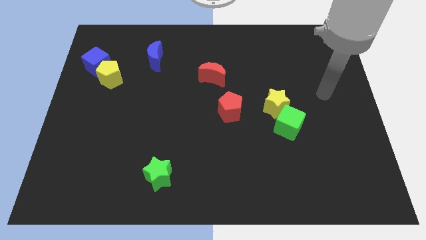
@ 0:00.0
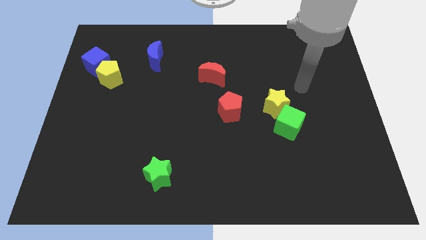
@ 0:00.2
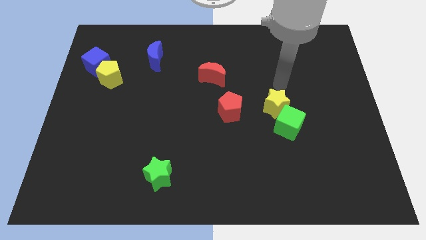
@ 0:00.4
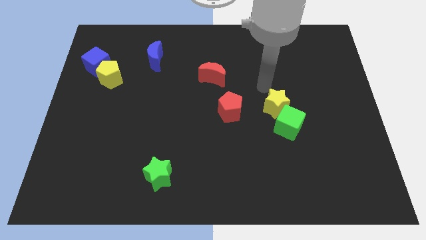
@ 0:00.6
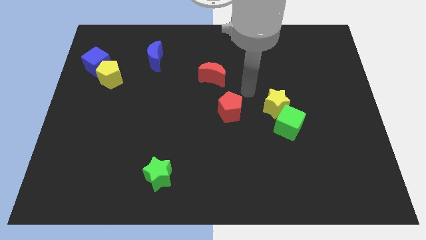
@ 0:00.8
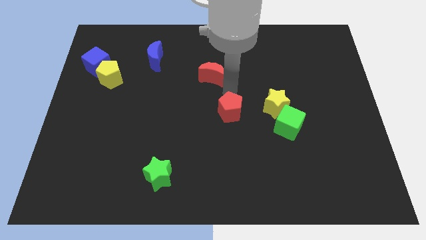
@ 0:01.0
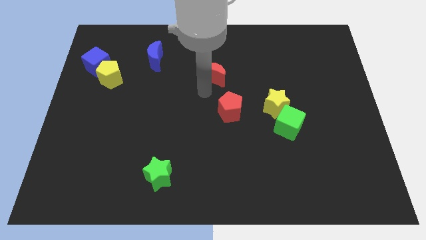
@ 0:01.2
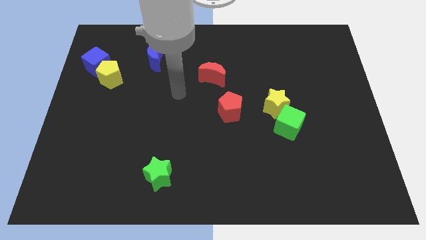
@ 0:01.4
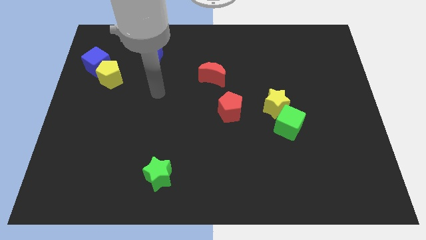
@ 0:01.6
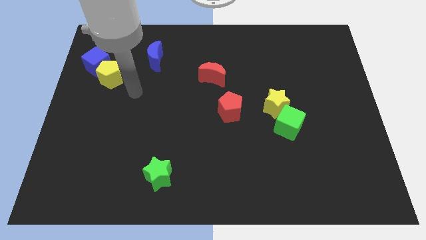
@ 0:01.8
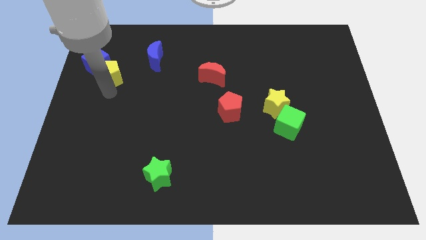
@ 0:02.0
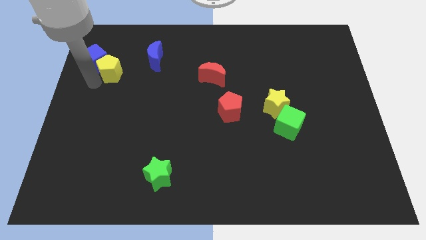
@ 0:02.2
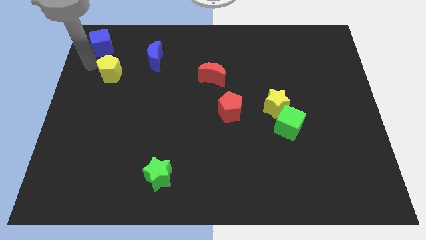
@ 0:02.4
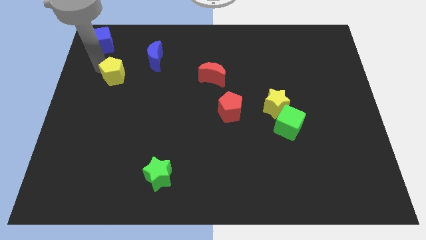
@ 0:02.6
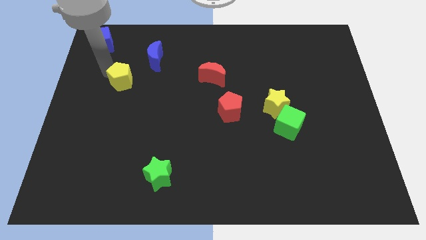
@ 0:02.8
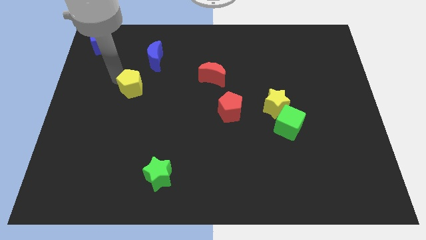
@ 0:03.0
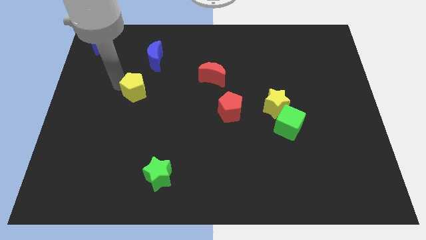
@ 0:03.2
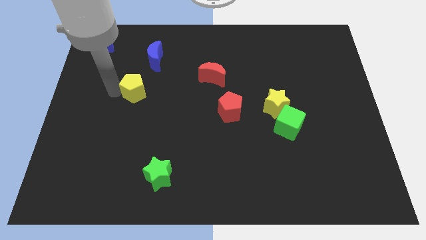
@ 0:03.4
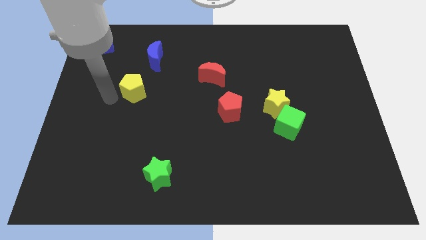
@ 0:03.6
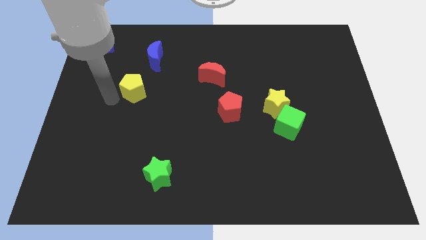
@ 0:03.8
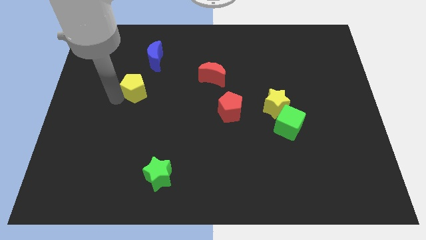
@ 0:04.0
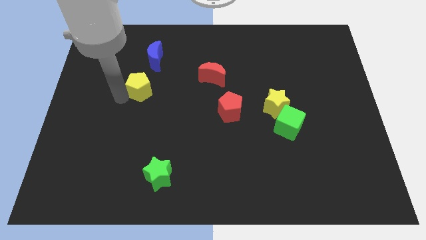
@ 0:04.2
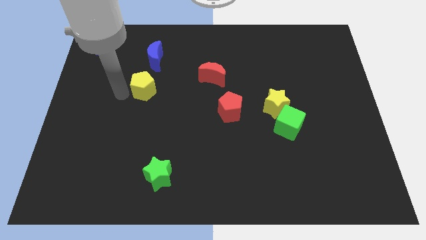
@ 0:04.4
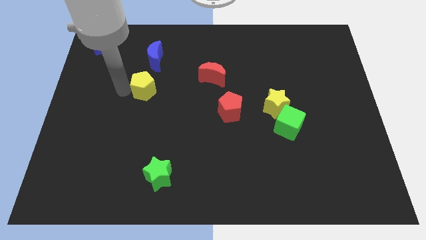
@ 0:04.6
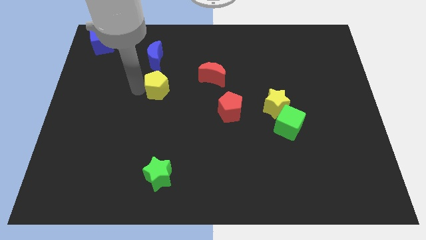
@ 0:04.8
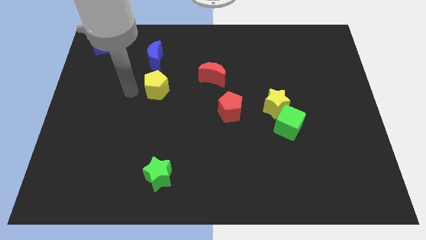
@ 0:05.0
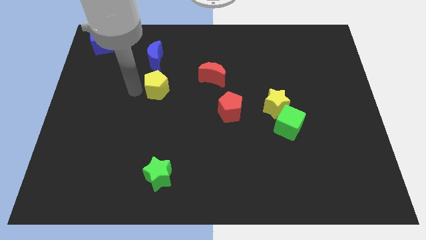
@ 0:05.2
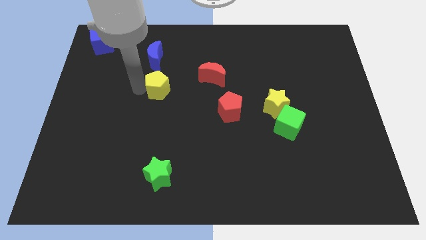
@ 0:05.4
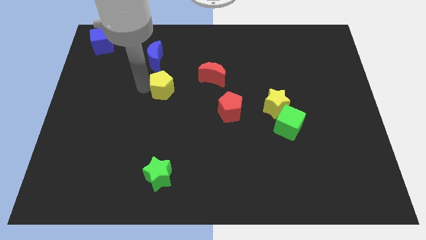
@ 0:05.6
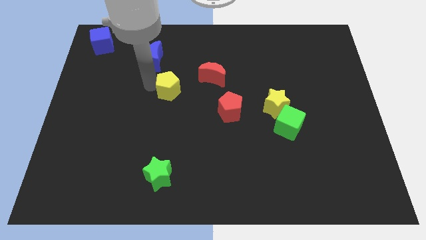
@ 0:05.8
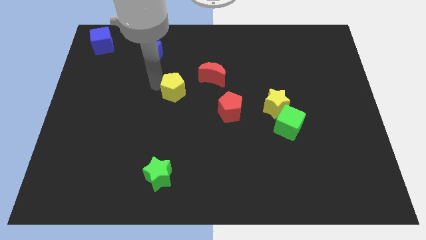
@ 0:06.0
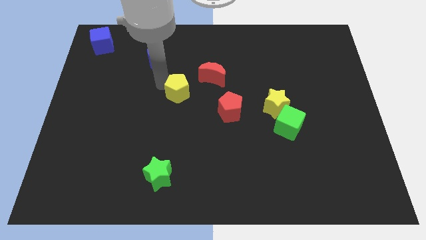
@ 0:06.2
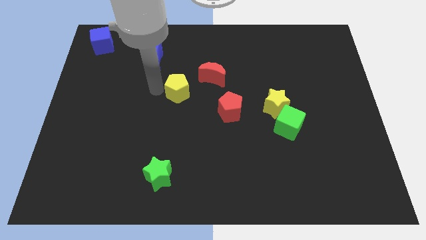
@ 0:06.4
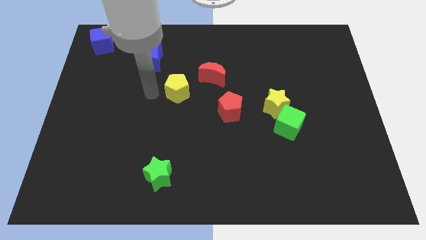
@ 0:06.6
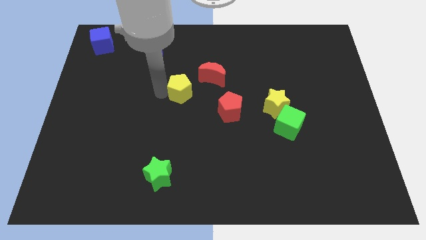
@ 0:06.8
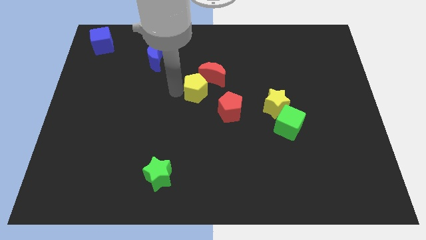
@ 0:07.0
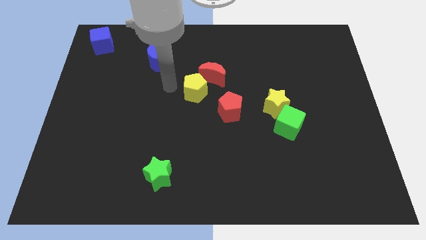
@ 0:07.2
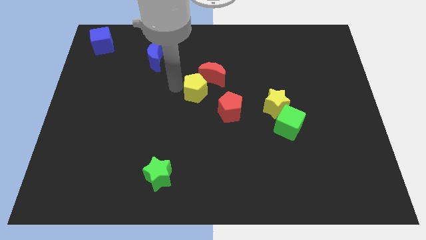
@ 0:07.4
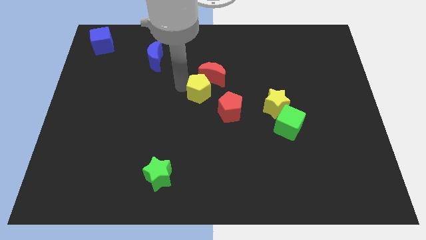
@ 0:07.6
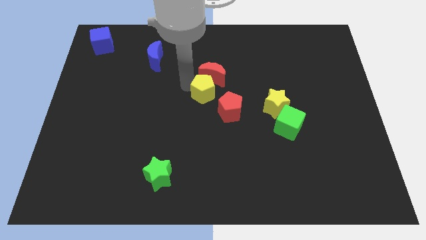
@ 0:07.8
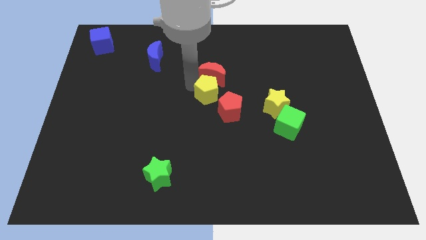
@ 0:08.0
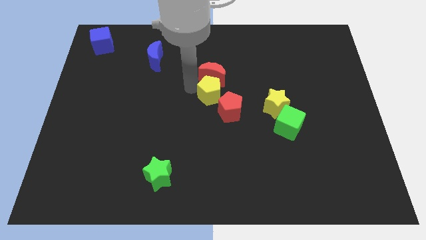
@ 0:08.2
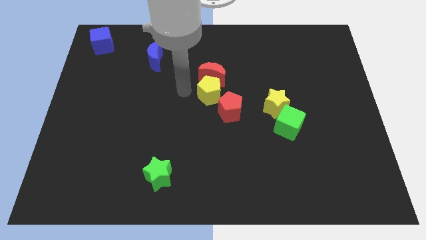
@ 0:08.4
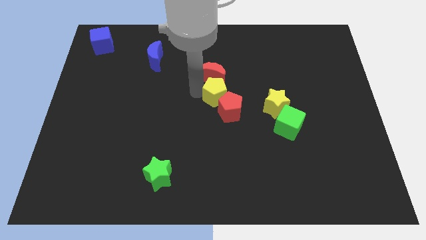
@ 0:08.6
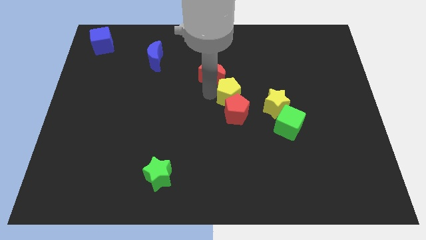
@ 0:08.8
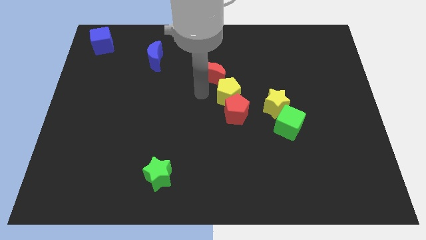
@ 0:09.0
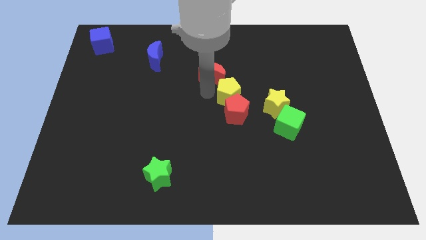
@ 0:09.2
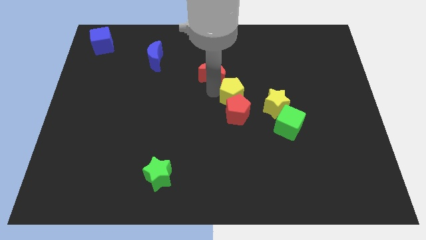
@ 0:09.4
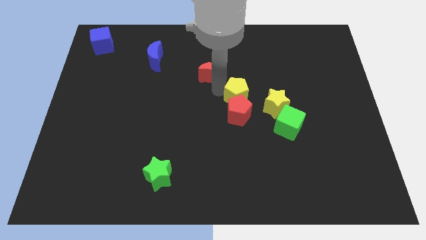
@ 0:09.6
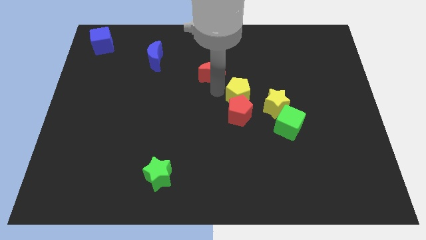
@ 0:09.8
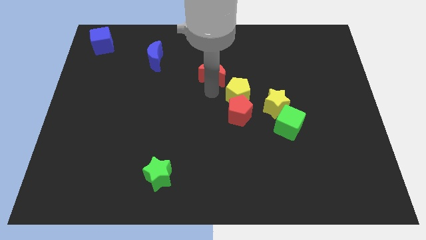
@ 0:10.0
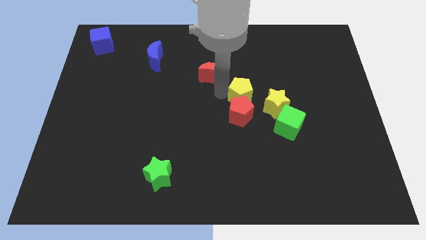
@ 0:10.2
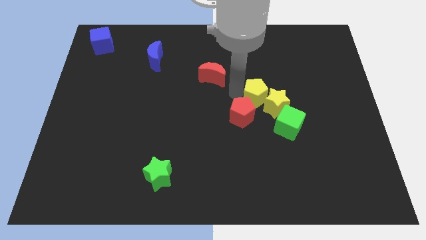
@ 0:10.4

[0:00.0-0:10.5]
move the yellow pentagon towards the yellow star
